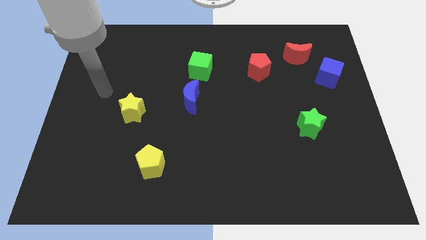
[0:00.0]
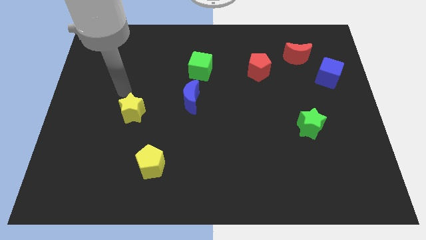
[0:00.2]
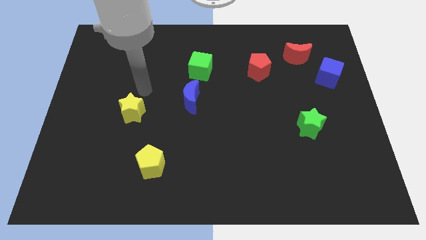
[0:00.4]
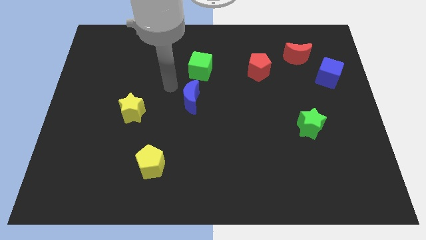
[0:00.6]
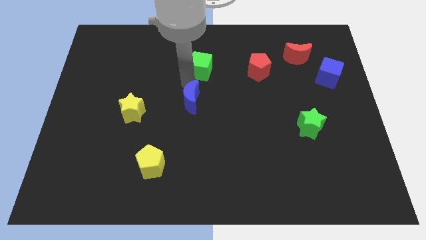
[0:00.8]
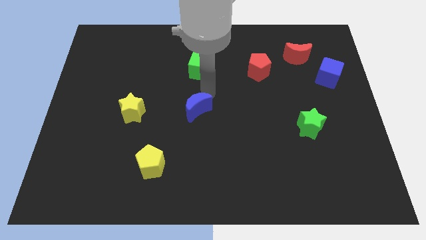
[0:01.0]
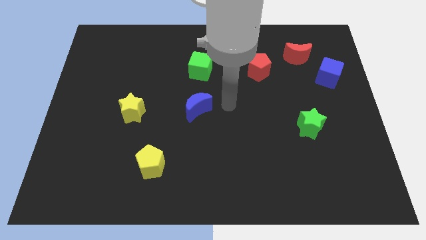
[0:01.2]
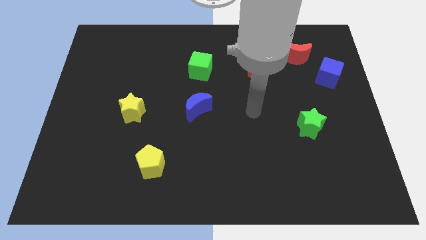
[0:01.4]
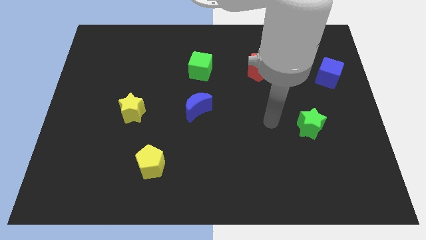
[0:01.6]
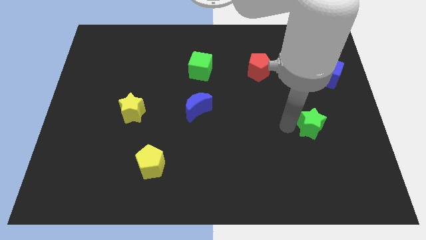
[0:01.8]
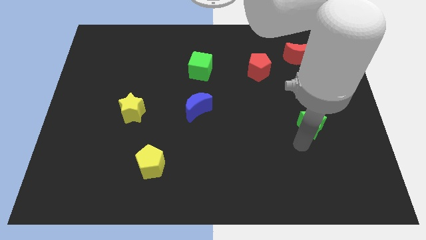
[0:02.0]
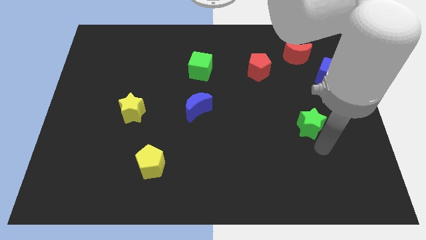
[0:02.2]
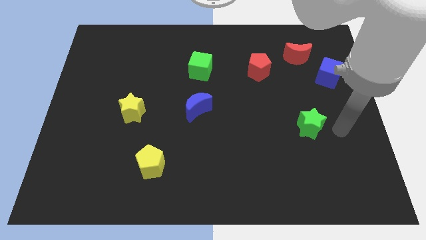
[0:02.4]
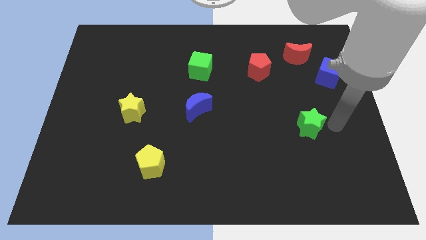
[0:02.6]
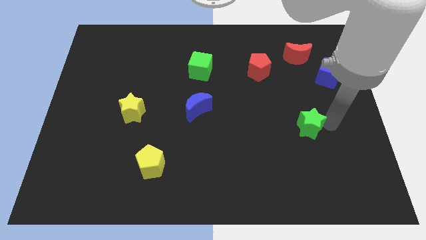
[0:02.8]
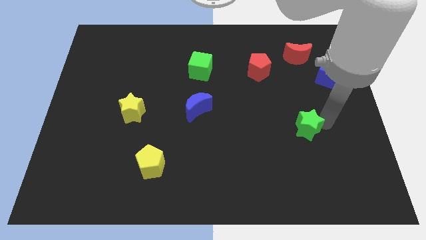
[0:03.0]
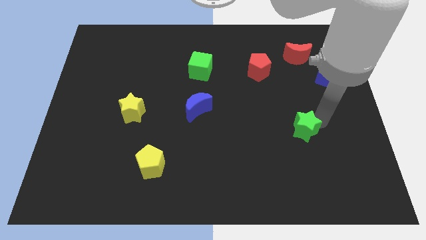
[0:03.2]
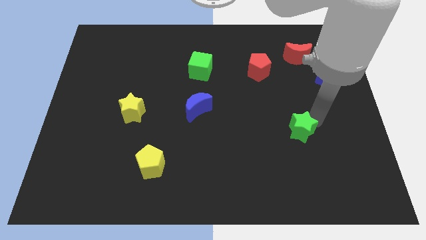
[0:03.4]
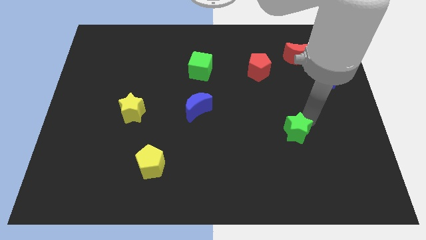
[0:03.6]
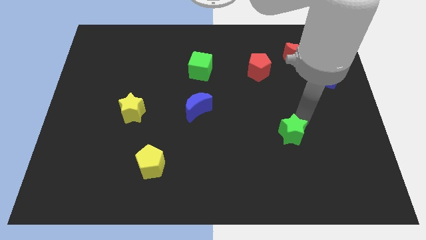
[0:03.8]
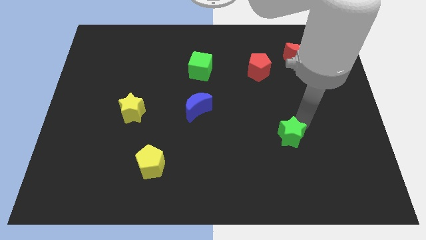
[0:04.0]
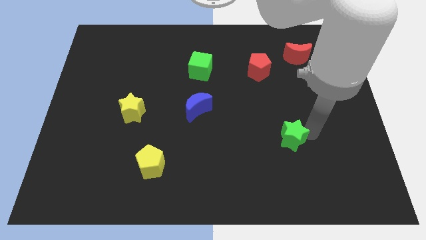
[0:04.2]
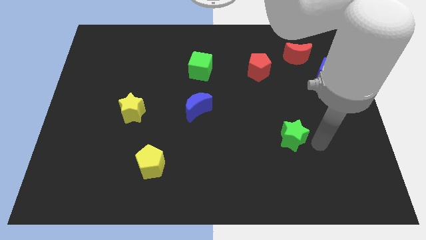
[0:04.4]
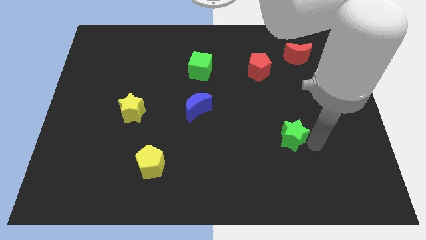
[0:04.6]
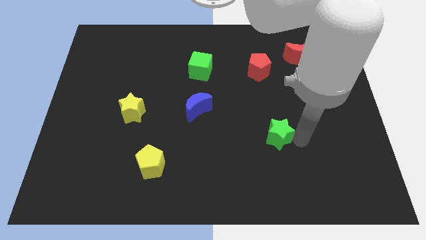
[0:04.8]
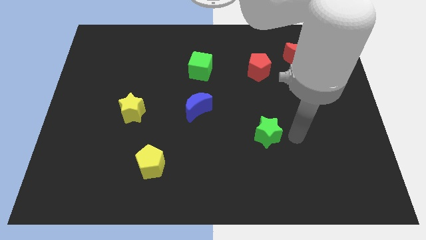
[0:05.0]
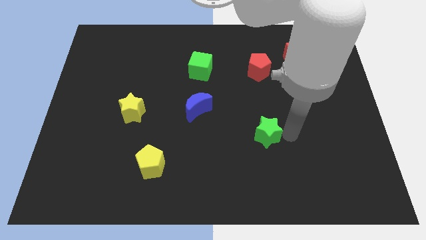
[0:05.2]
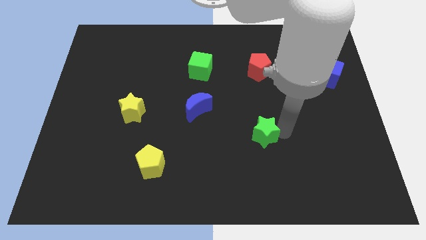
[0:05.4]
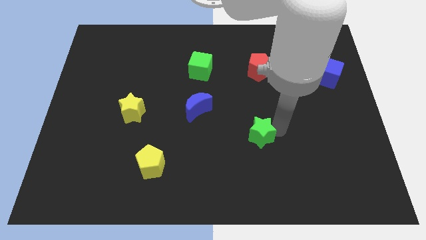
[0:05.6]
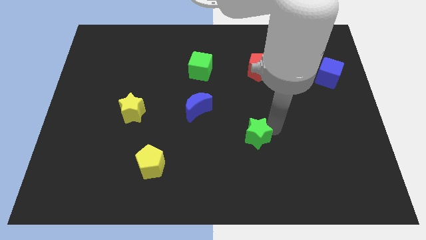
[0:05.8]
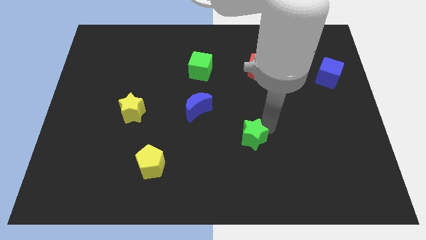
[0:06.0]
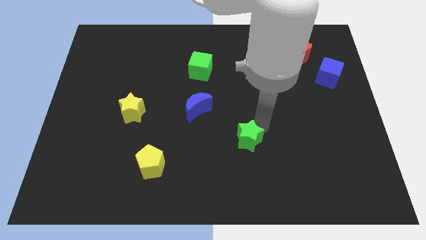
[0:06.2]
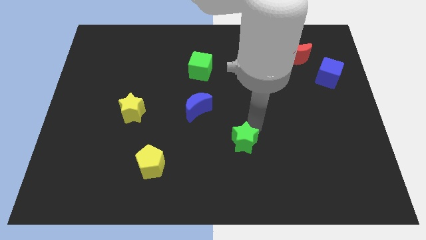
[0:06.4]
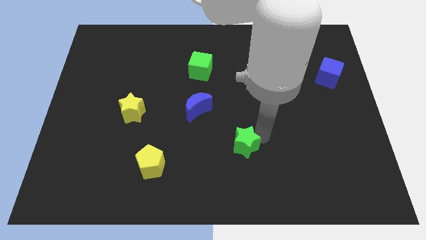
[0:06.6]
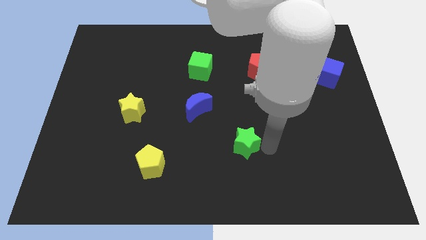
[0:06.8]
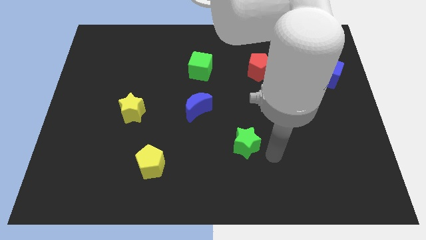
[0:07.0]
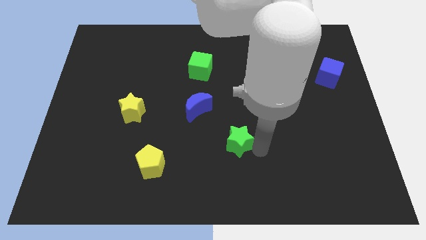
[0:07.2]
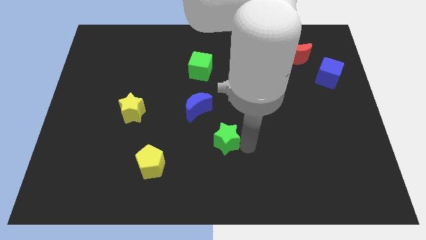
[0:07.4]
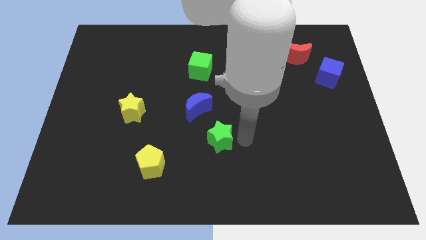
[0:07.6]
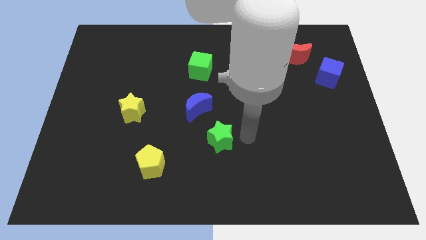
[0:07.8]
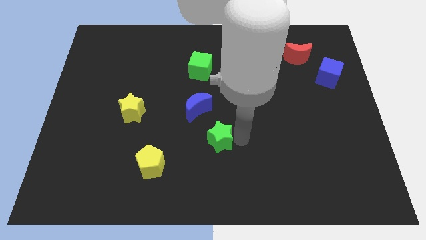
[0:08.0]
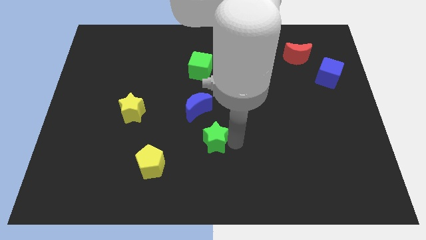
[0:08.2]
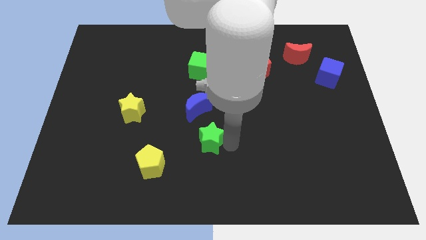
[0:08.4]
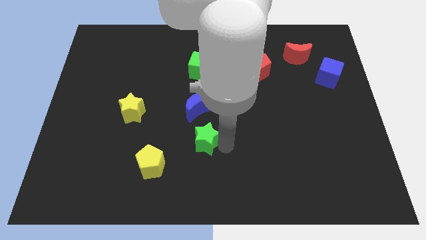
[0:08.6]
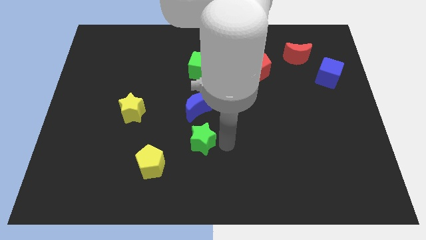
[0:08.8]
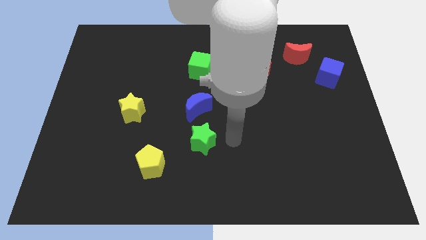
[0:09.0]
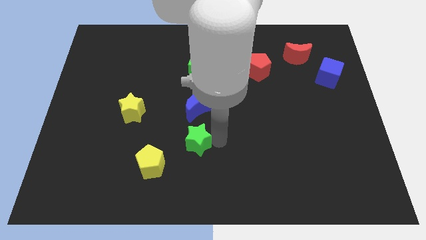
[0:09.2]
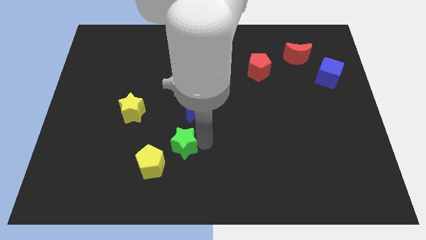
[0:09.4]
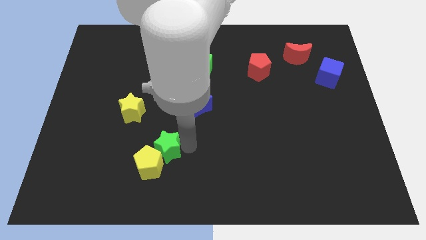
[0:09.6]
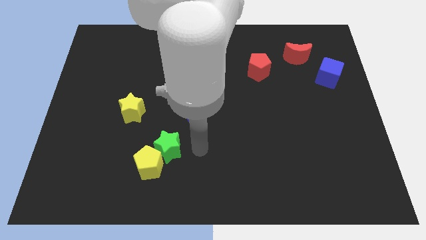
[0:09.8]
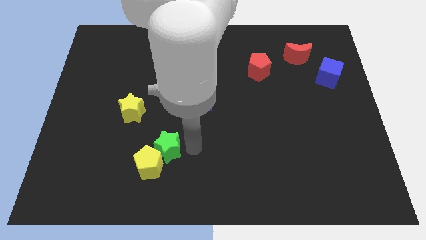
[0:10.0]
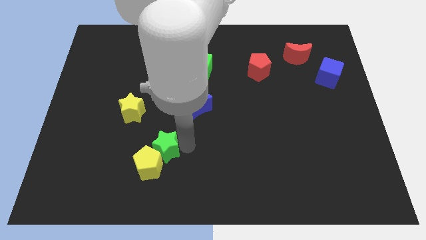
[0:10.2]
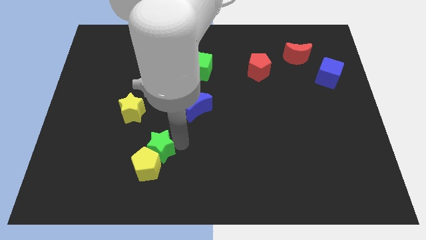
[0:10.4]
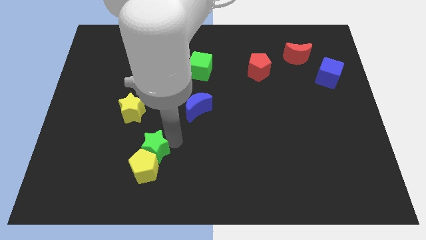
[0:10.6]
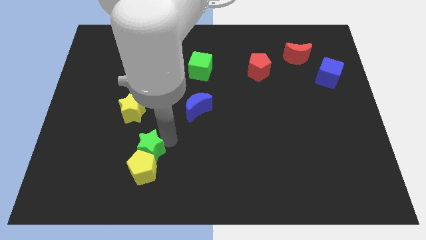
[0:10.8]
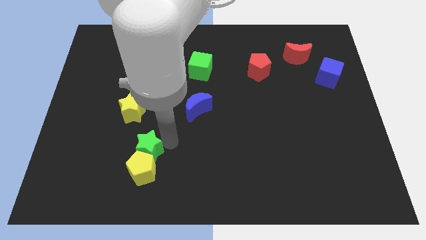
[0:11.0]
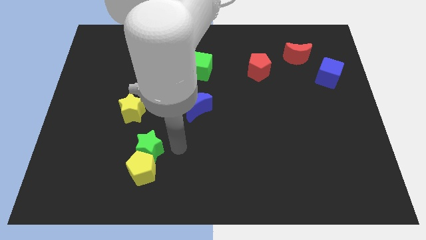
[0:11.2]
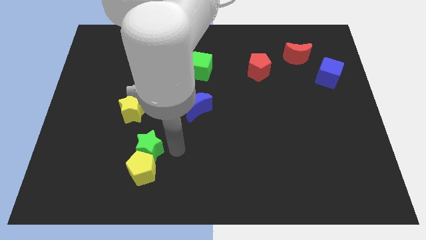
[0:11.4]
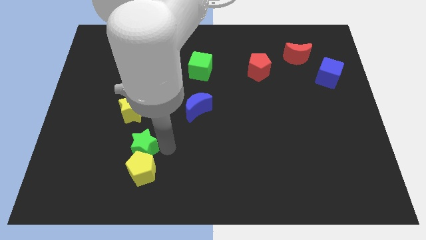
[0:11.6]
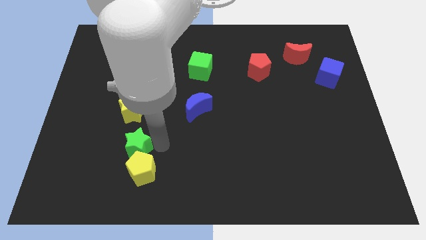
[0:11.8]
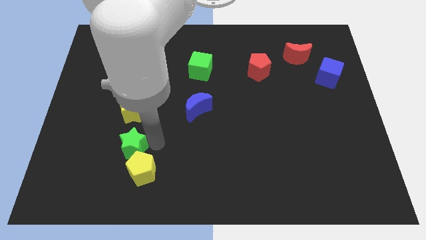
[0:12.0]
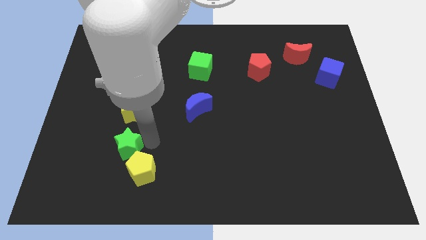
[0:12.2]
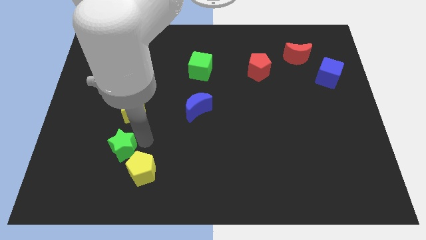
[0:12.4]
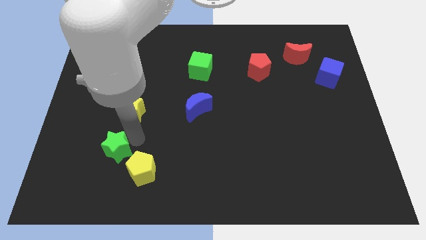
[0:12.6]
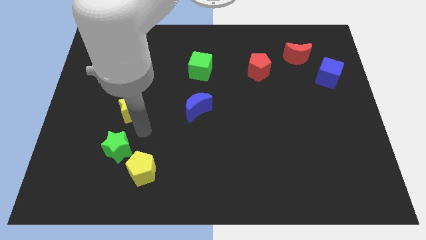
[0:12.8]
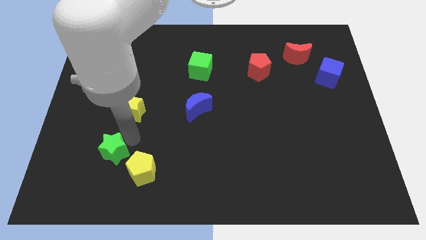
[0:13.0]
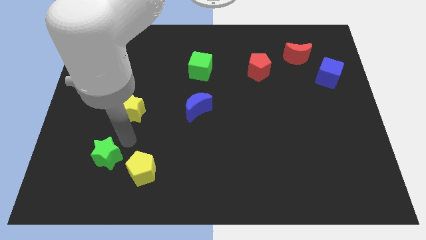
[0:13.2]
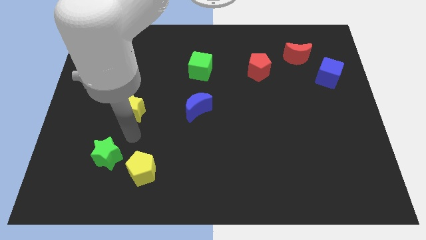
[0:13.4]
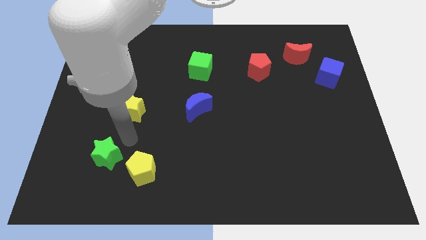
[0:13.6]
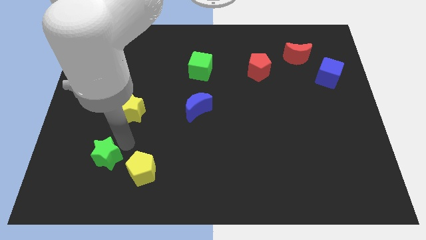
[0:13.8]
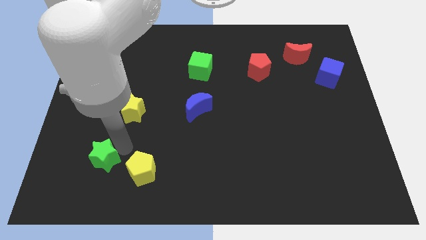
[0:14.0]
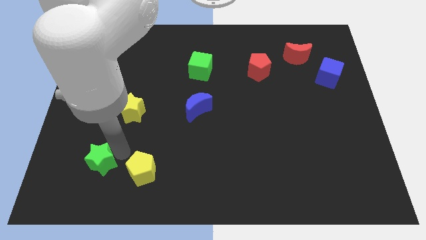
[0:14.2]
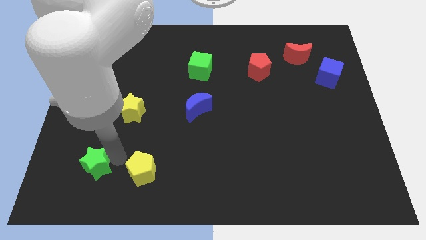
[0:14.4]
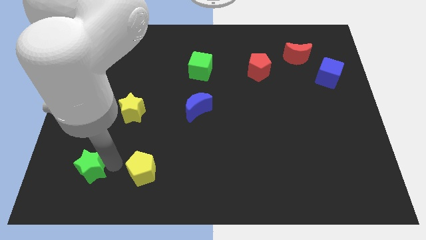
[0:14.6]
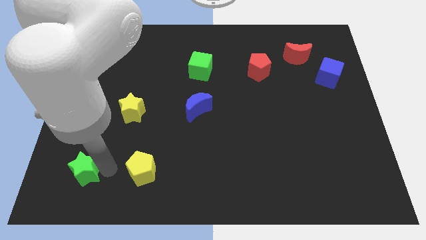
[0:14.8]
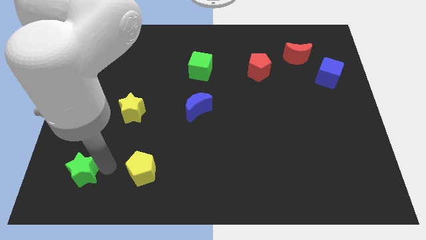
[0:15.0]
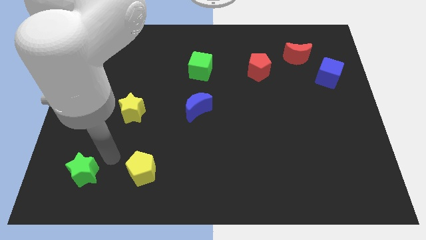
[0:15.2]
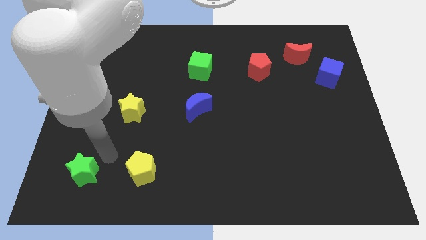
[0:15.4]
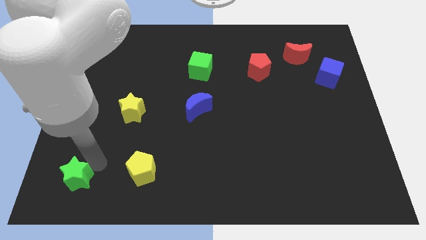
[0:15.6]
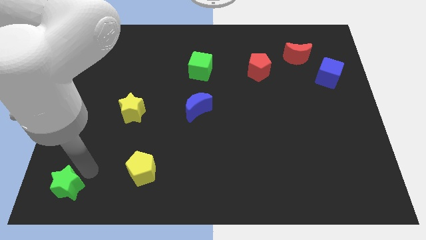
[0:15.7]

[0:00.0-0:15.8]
move the green star to the bottom left of the board
